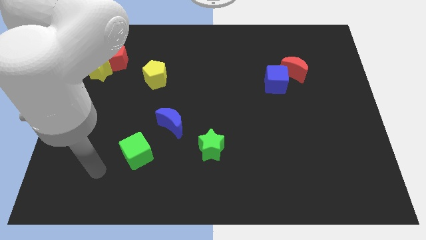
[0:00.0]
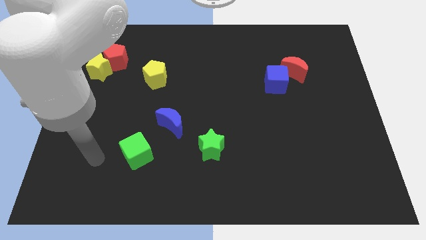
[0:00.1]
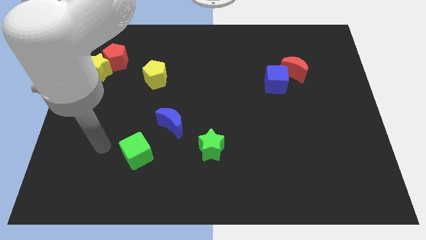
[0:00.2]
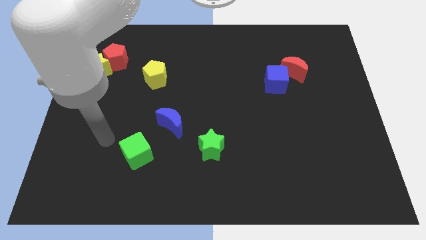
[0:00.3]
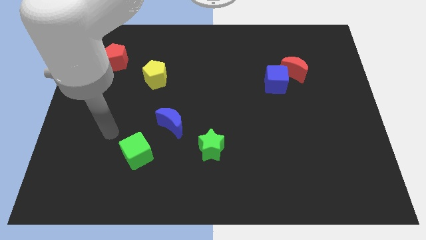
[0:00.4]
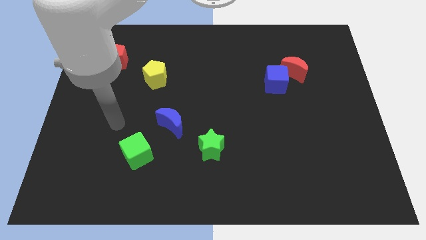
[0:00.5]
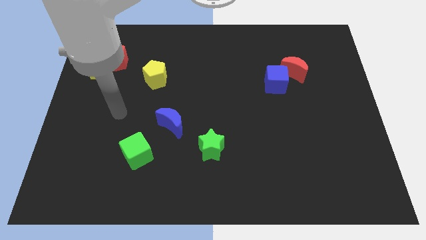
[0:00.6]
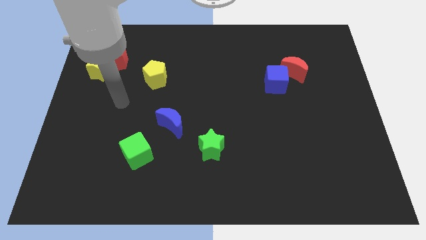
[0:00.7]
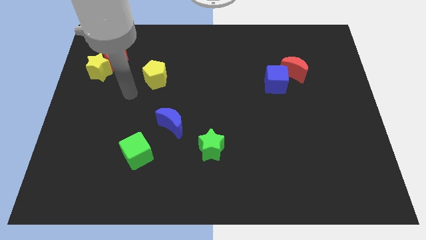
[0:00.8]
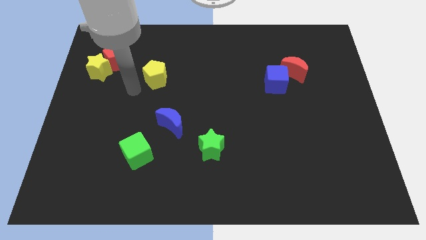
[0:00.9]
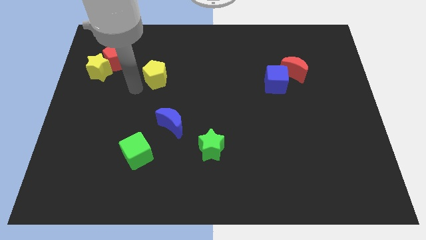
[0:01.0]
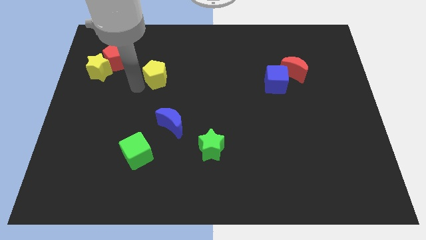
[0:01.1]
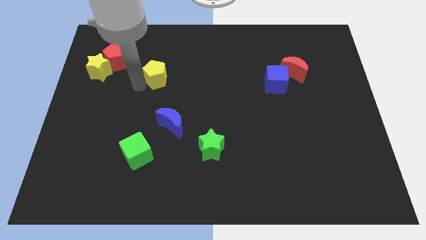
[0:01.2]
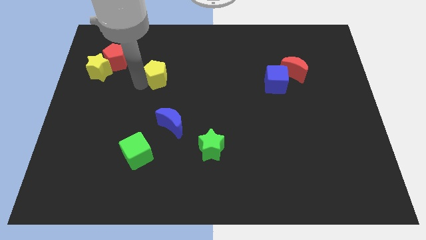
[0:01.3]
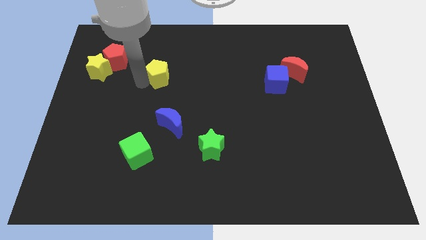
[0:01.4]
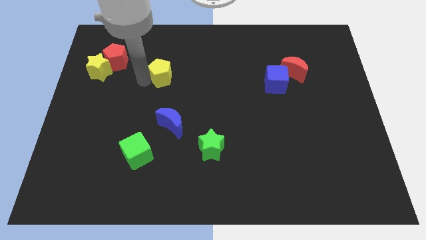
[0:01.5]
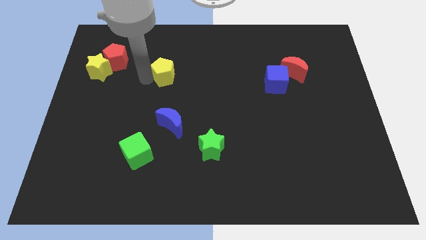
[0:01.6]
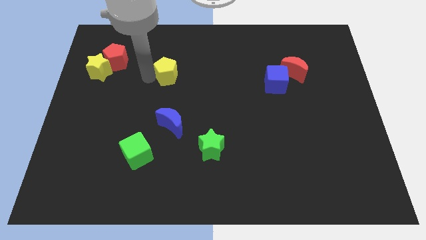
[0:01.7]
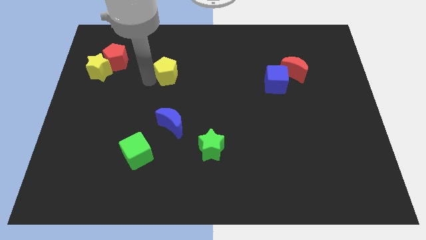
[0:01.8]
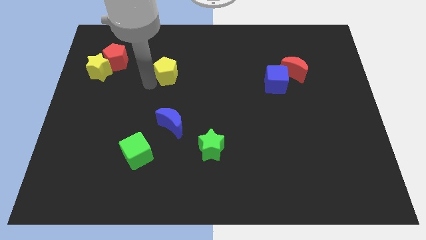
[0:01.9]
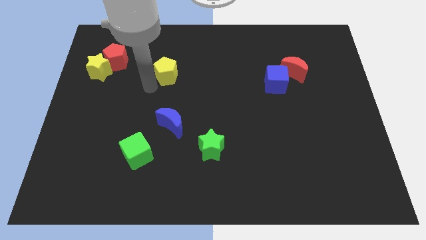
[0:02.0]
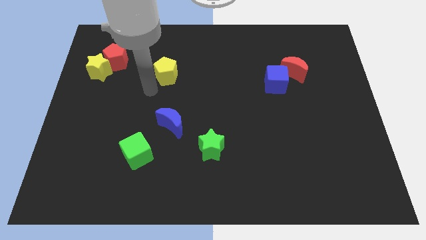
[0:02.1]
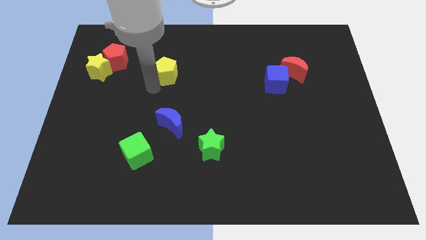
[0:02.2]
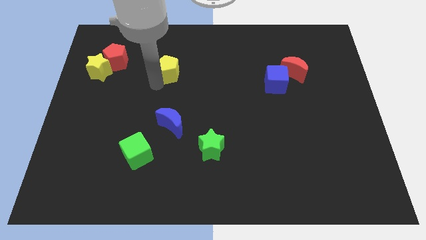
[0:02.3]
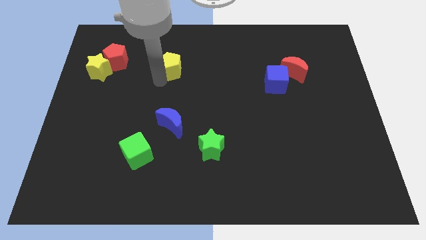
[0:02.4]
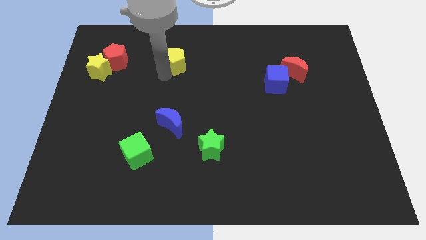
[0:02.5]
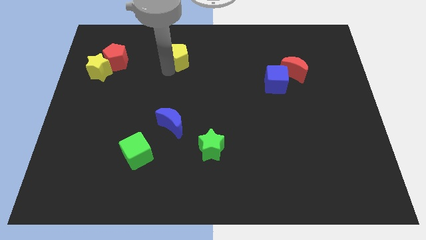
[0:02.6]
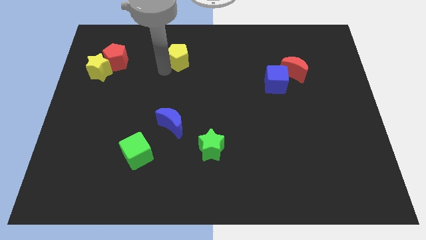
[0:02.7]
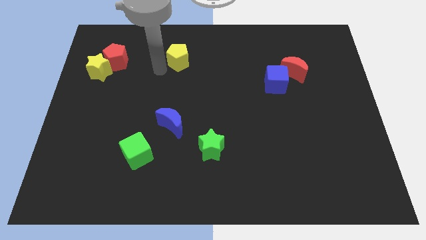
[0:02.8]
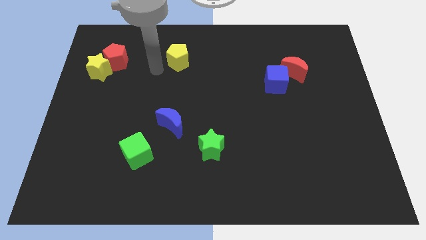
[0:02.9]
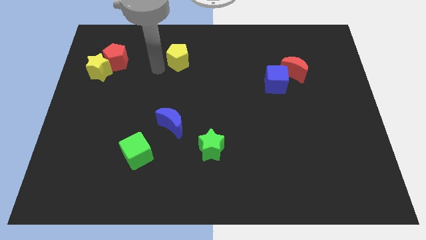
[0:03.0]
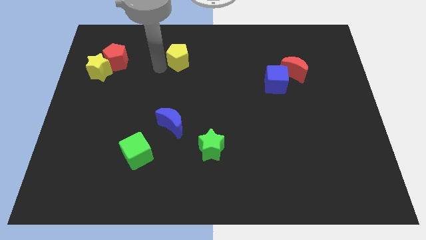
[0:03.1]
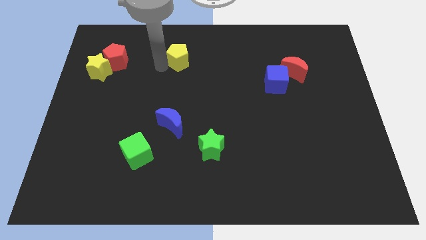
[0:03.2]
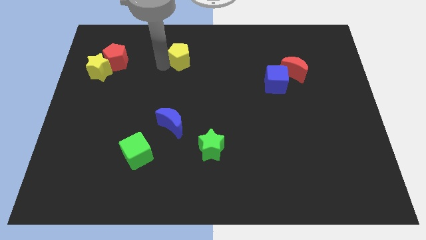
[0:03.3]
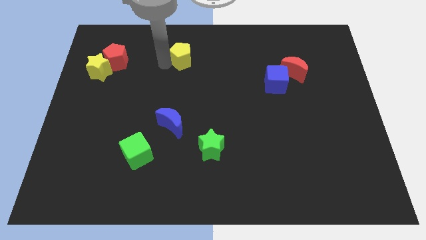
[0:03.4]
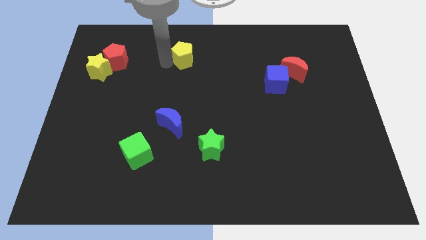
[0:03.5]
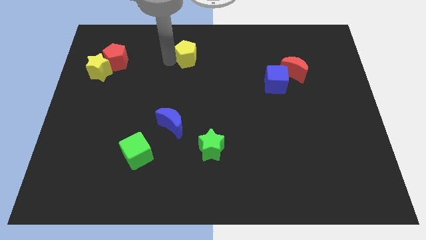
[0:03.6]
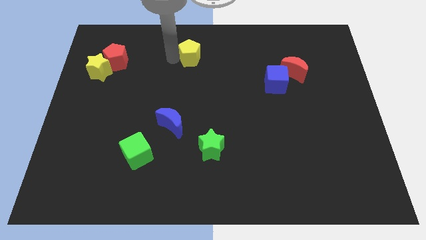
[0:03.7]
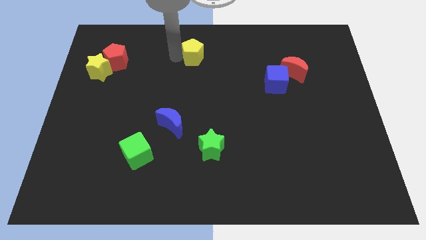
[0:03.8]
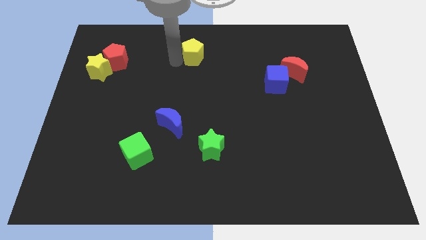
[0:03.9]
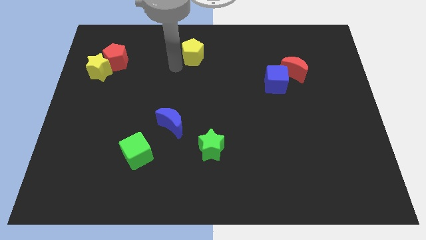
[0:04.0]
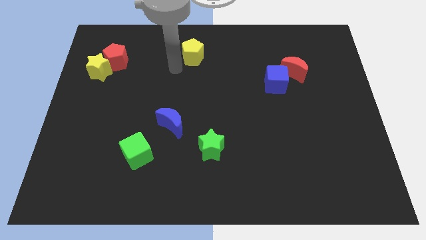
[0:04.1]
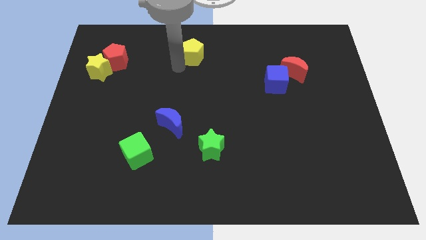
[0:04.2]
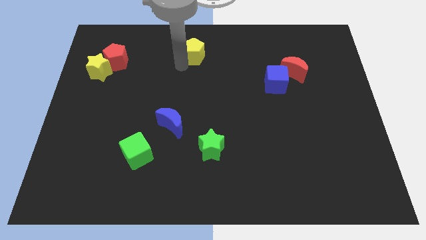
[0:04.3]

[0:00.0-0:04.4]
move the yellow pentagon to the top side

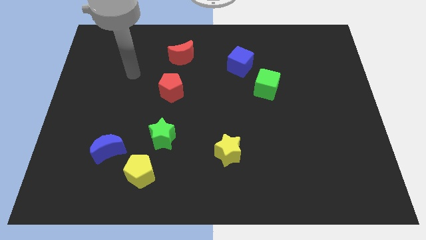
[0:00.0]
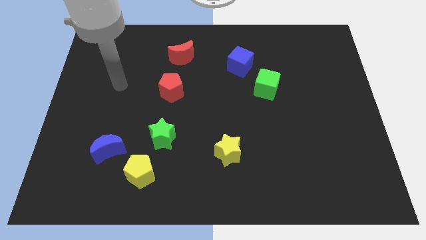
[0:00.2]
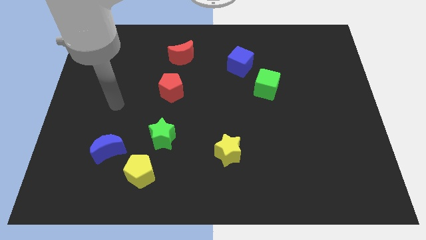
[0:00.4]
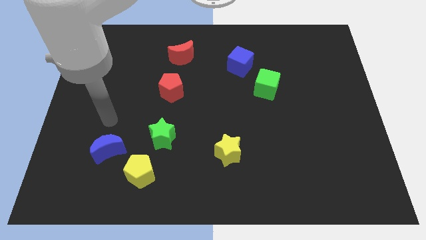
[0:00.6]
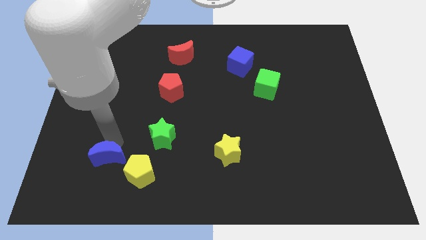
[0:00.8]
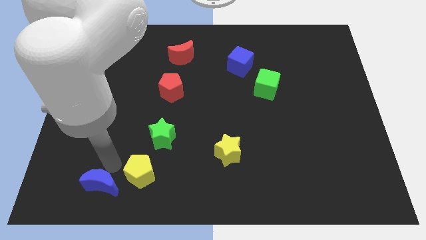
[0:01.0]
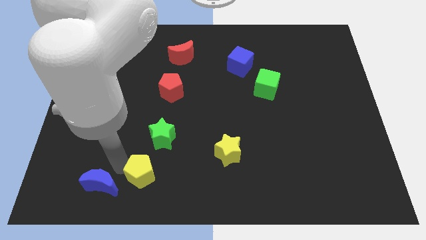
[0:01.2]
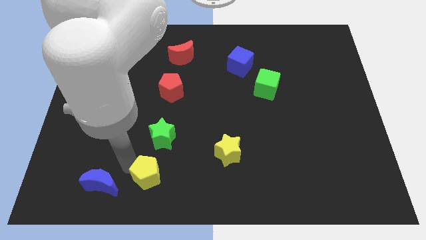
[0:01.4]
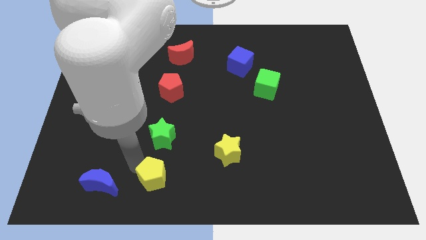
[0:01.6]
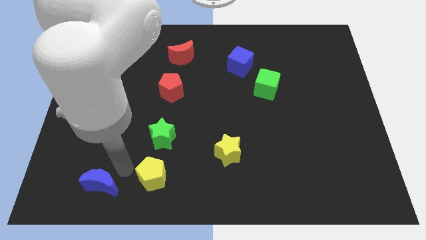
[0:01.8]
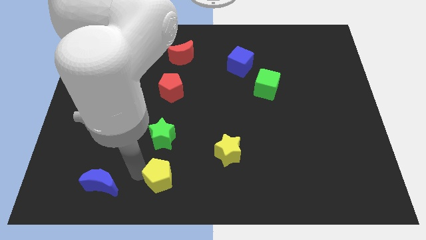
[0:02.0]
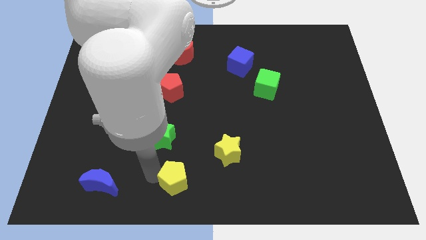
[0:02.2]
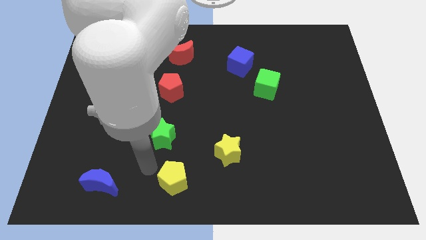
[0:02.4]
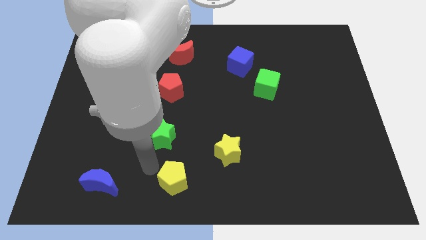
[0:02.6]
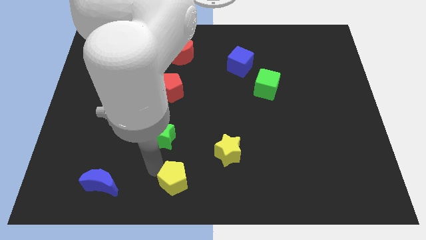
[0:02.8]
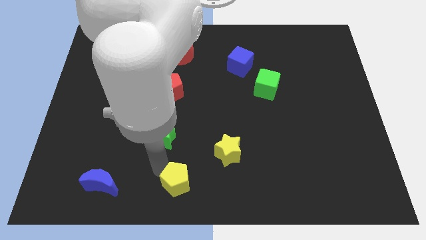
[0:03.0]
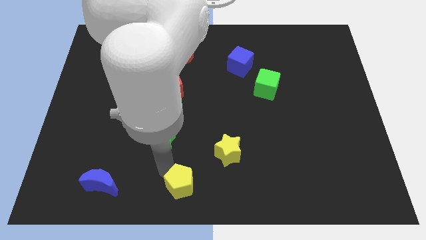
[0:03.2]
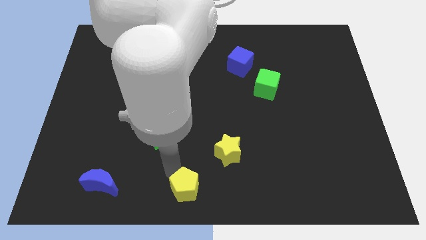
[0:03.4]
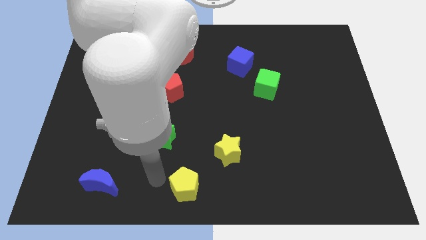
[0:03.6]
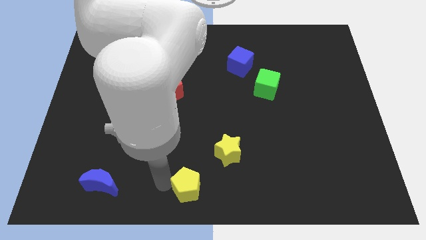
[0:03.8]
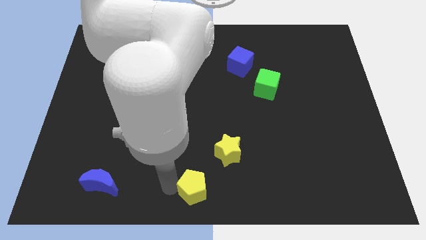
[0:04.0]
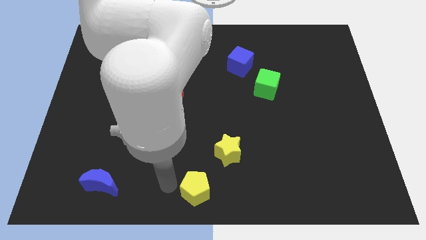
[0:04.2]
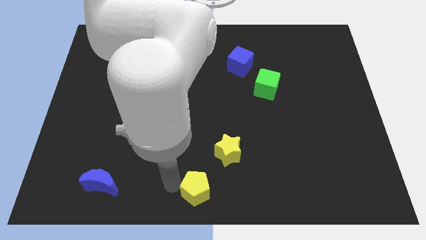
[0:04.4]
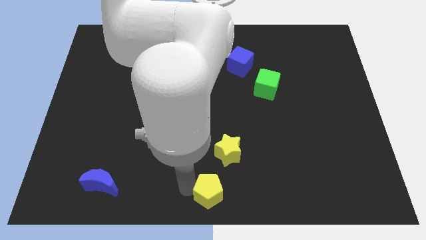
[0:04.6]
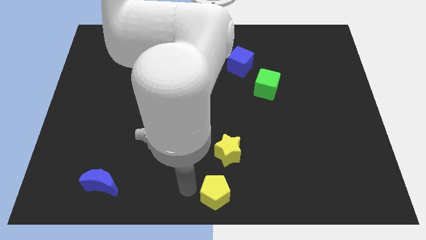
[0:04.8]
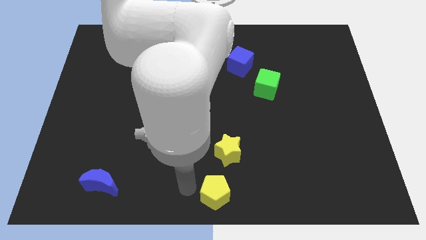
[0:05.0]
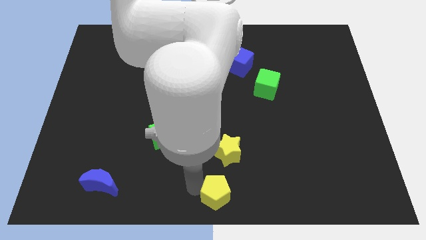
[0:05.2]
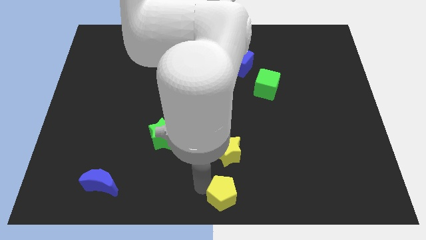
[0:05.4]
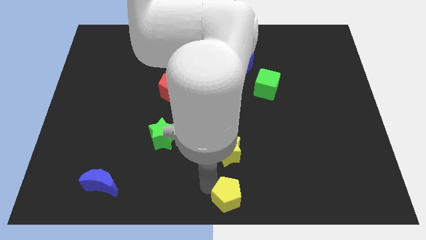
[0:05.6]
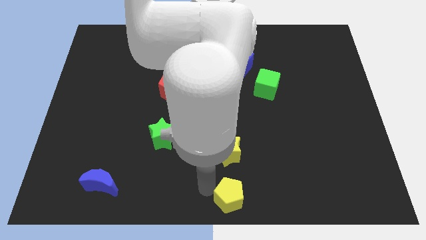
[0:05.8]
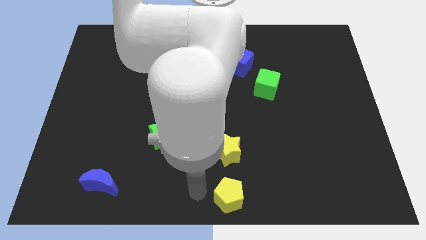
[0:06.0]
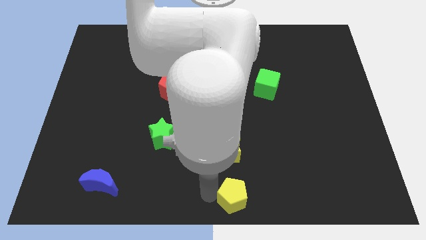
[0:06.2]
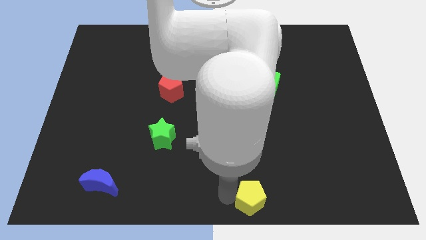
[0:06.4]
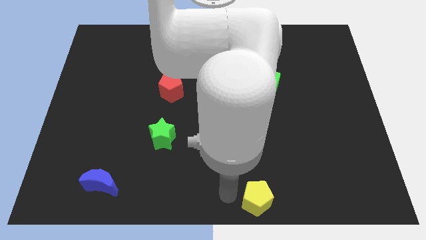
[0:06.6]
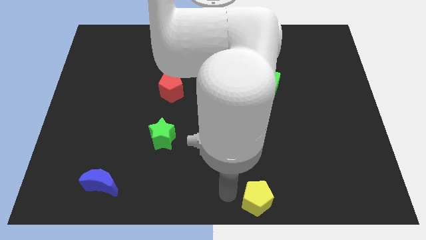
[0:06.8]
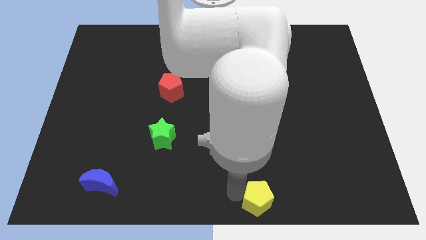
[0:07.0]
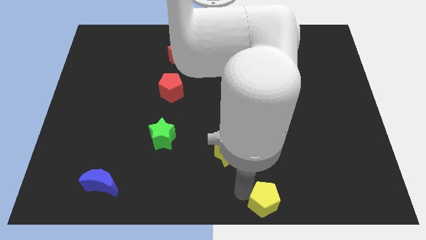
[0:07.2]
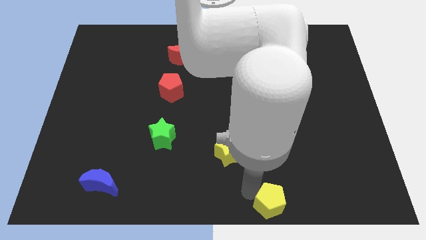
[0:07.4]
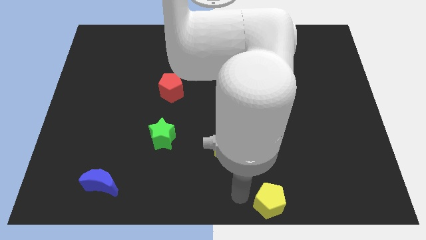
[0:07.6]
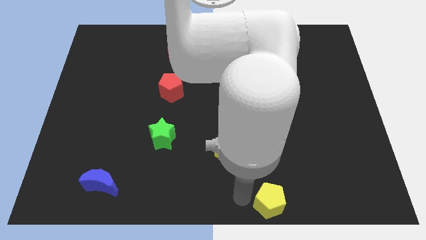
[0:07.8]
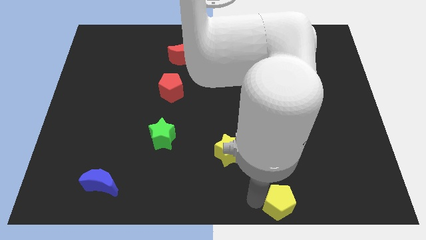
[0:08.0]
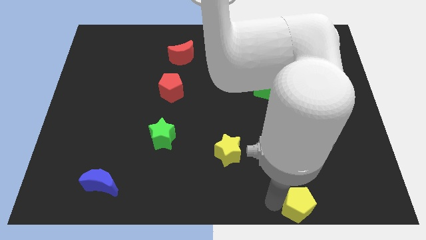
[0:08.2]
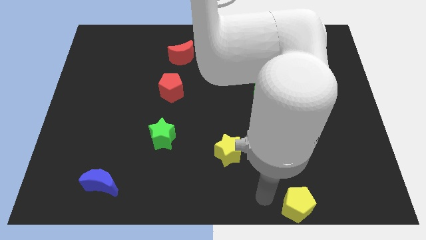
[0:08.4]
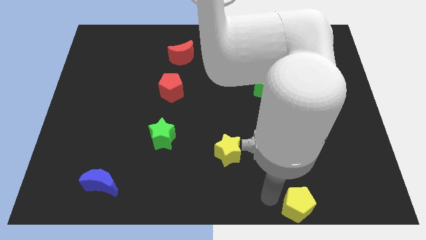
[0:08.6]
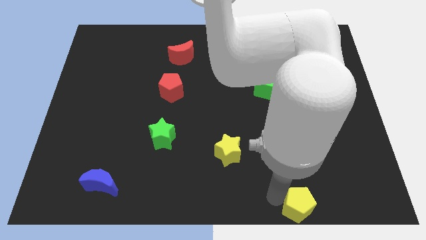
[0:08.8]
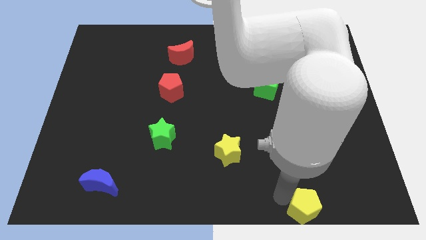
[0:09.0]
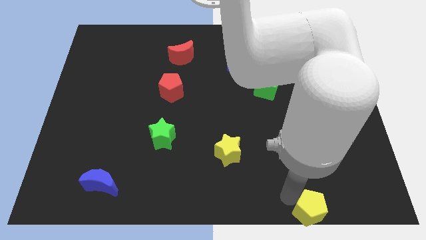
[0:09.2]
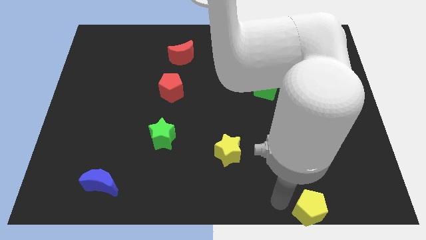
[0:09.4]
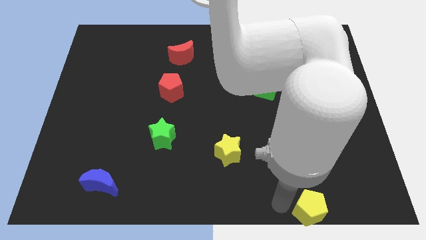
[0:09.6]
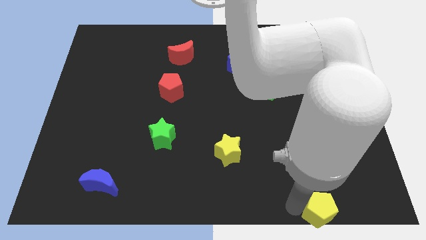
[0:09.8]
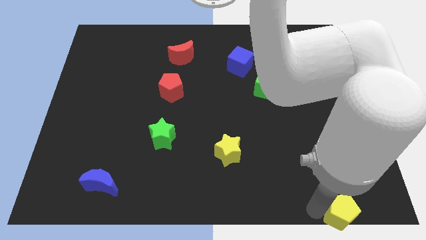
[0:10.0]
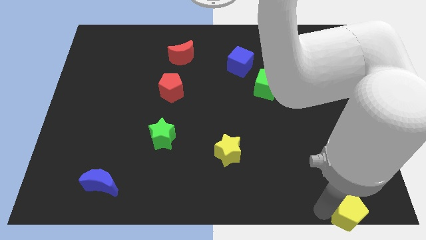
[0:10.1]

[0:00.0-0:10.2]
slide the yellow pentagon to the bottom right of the board
